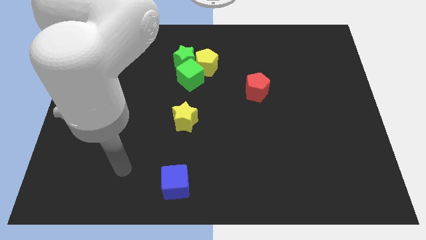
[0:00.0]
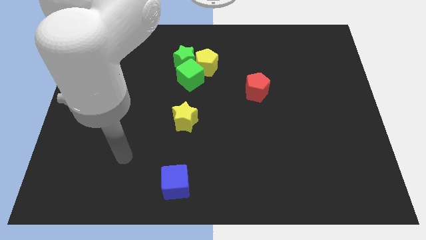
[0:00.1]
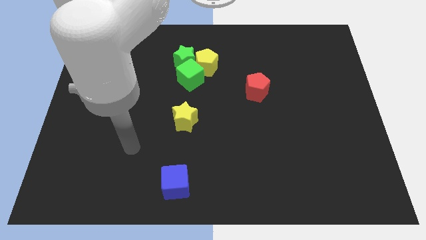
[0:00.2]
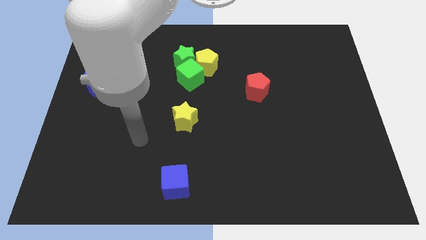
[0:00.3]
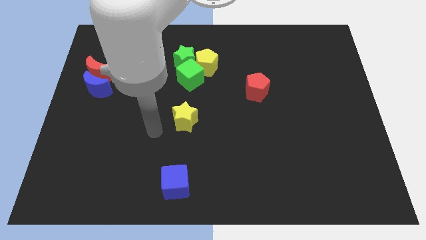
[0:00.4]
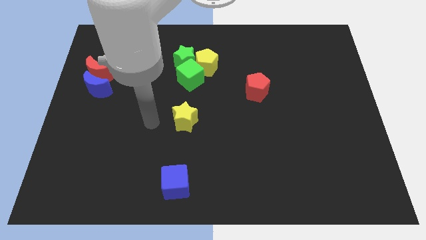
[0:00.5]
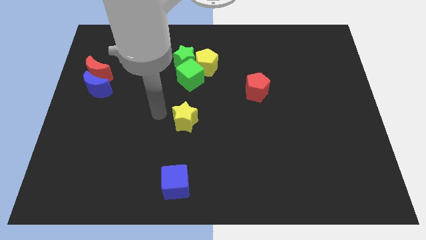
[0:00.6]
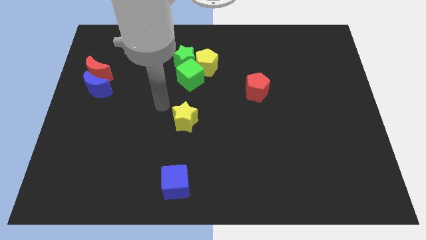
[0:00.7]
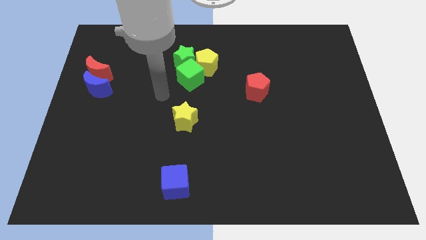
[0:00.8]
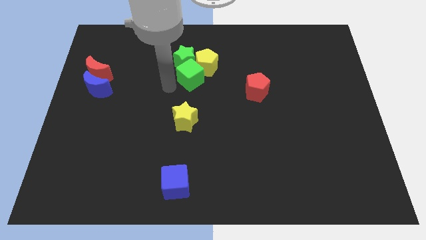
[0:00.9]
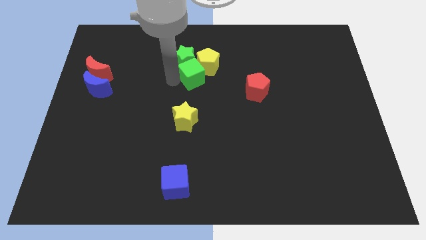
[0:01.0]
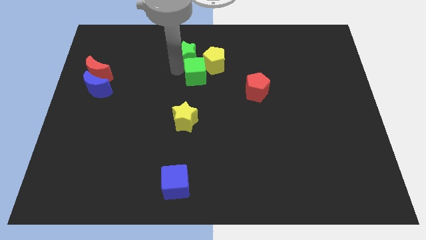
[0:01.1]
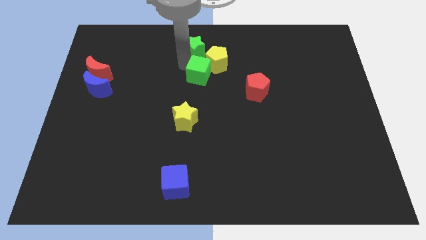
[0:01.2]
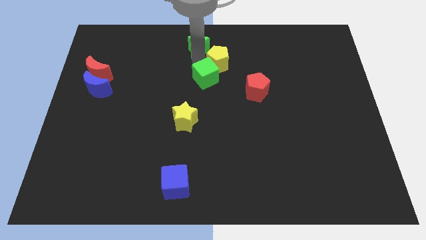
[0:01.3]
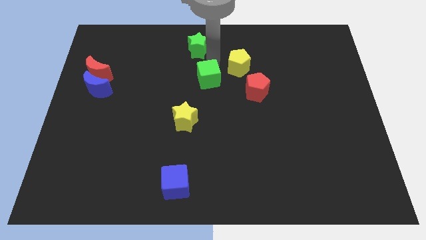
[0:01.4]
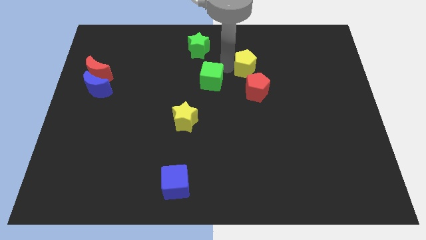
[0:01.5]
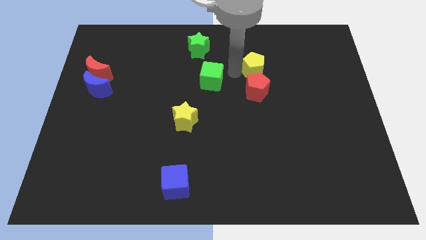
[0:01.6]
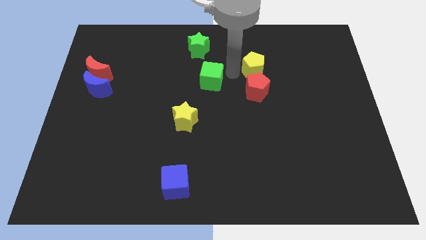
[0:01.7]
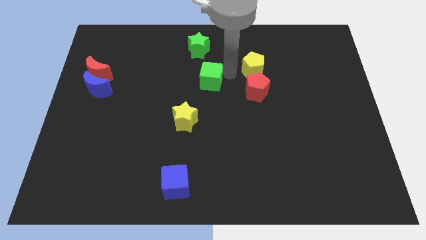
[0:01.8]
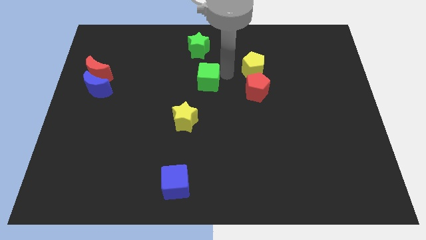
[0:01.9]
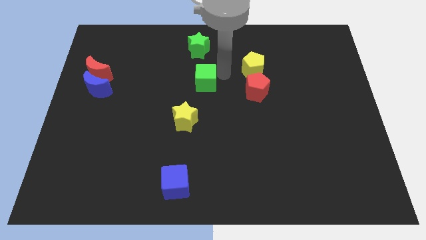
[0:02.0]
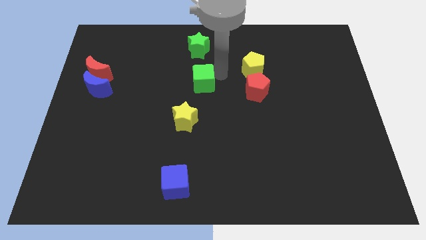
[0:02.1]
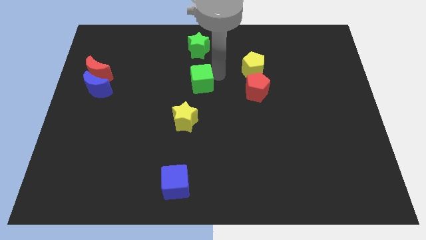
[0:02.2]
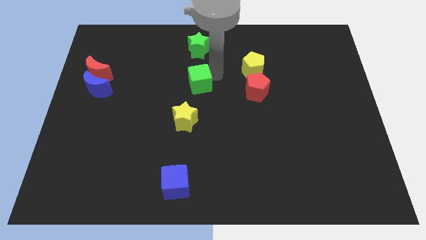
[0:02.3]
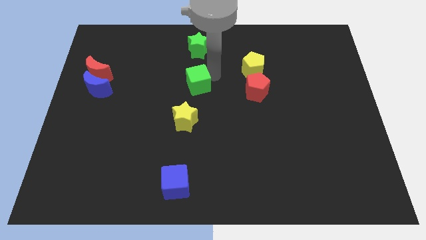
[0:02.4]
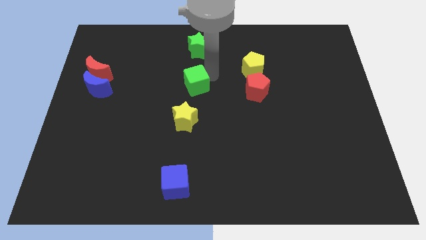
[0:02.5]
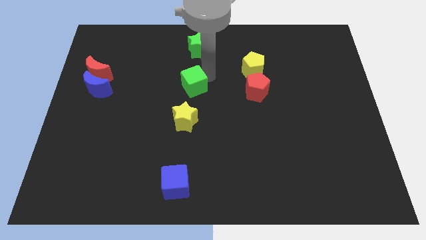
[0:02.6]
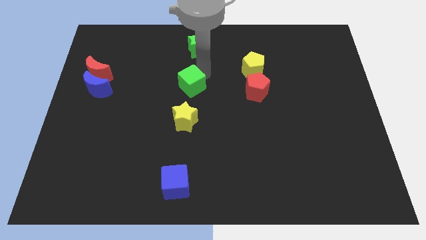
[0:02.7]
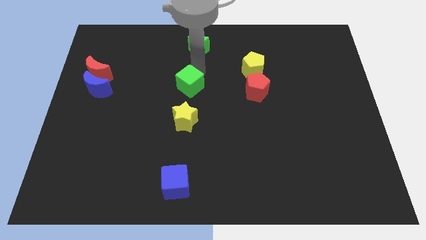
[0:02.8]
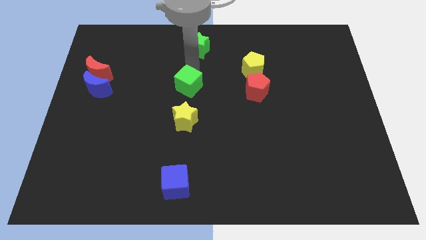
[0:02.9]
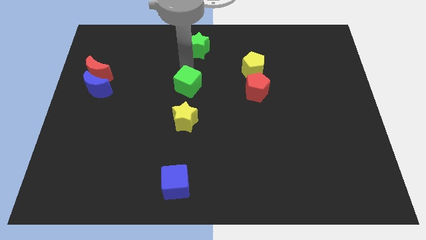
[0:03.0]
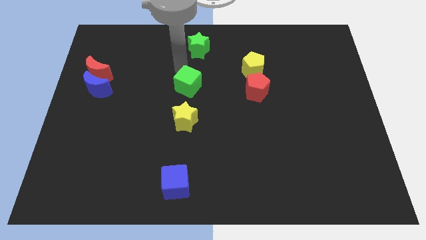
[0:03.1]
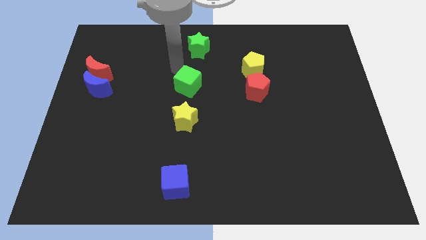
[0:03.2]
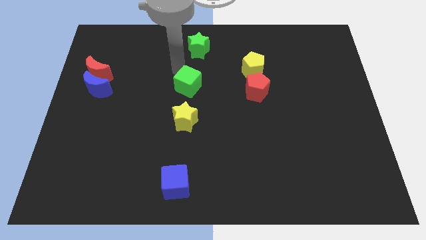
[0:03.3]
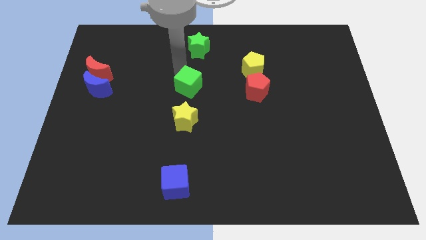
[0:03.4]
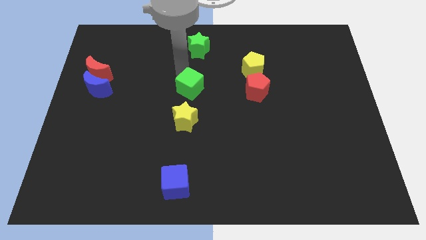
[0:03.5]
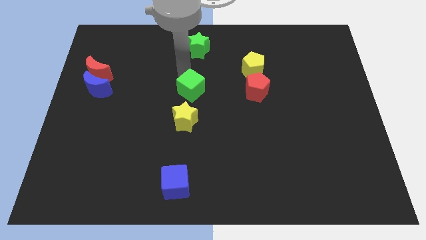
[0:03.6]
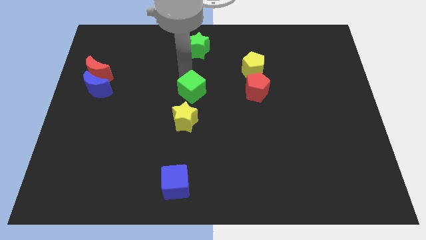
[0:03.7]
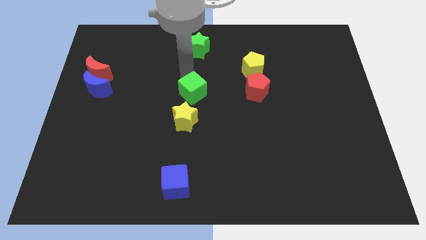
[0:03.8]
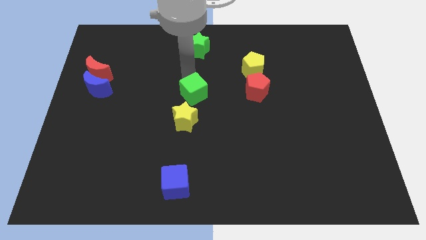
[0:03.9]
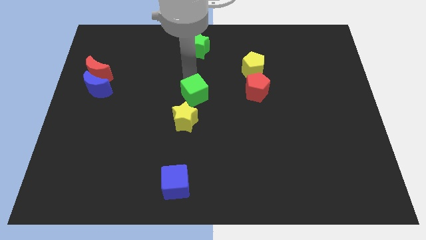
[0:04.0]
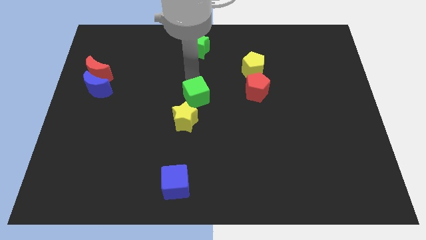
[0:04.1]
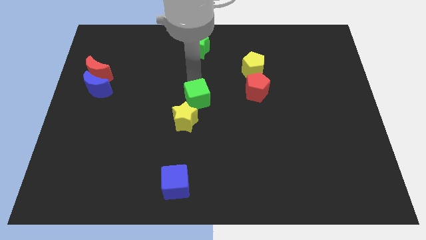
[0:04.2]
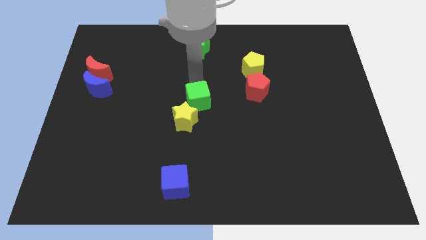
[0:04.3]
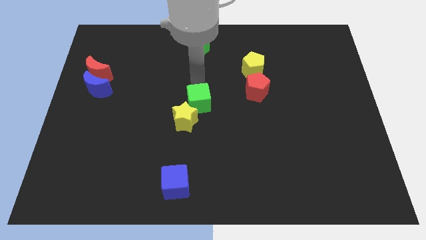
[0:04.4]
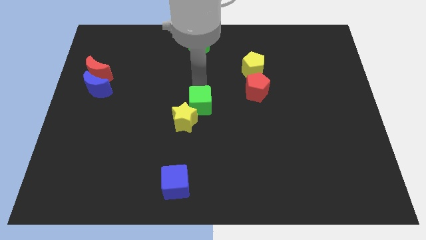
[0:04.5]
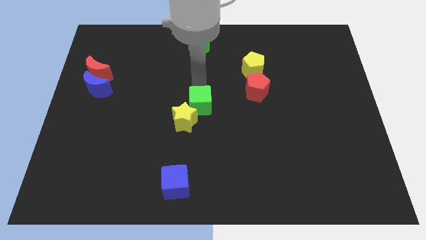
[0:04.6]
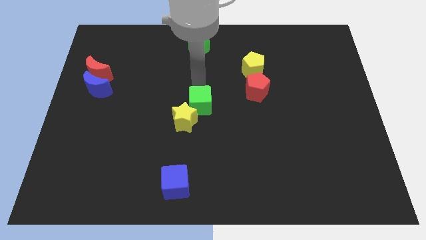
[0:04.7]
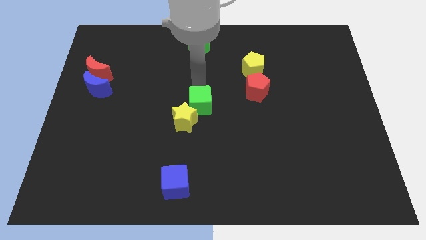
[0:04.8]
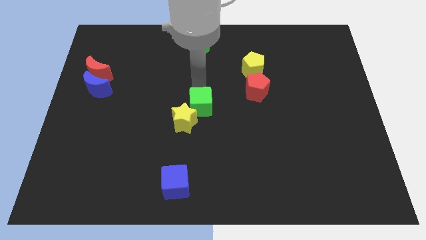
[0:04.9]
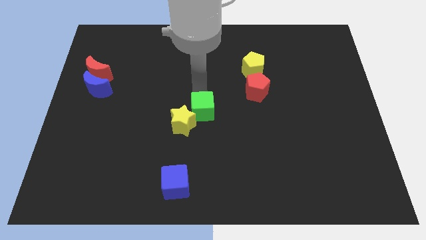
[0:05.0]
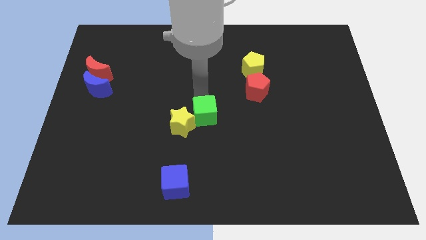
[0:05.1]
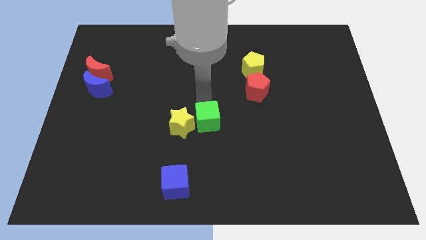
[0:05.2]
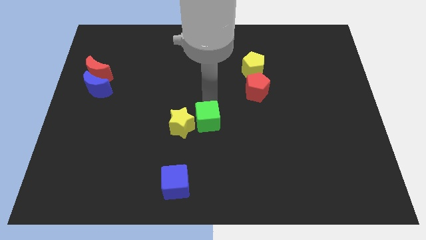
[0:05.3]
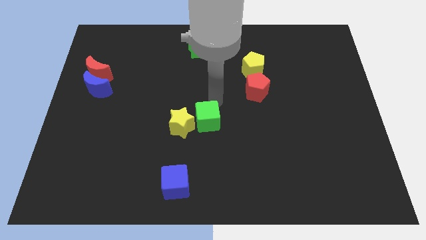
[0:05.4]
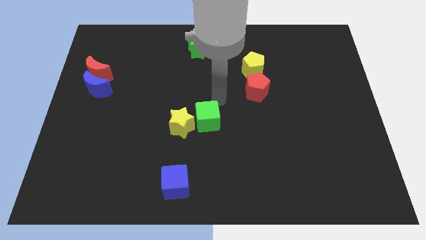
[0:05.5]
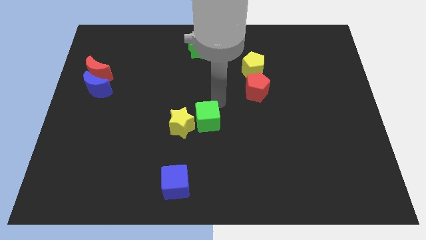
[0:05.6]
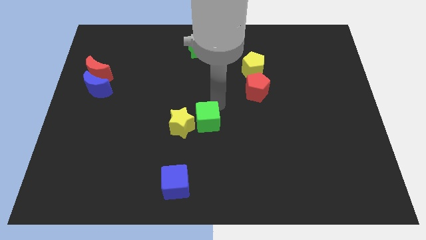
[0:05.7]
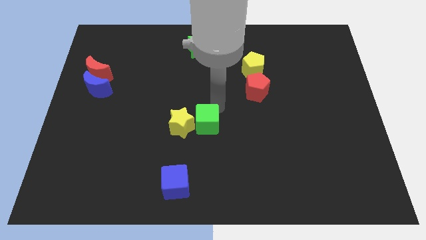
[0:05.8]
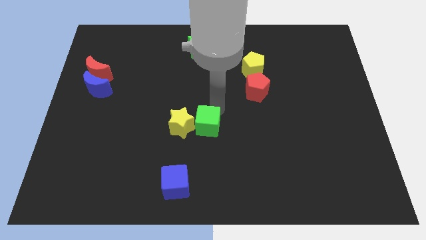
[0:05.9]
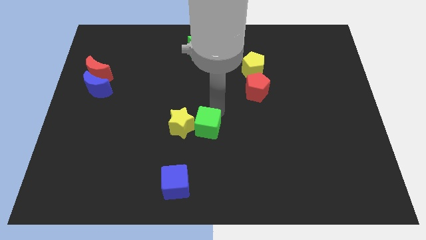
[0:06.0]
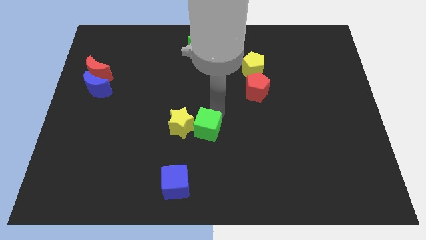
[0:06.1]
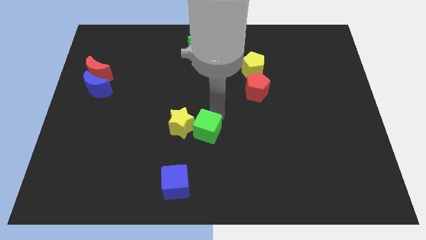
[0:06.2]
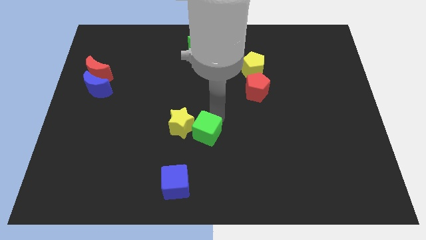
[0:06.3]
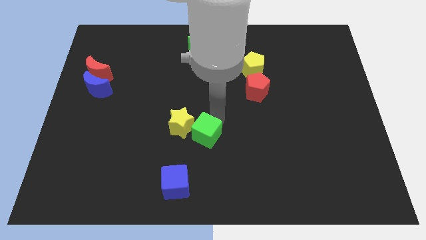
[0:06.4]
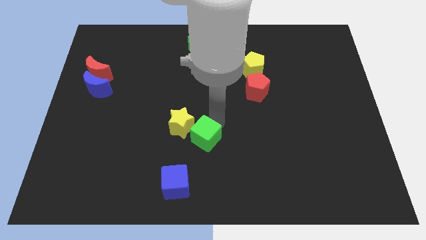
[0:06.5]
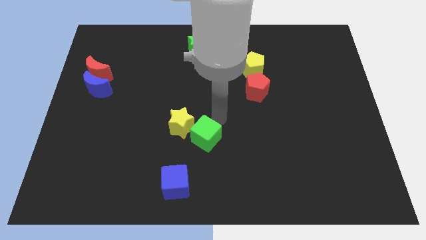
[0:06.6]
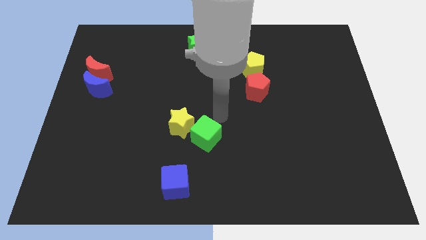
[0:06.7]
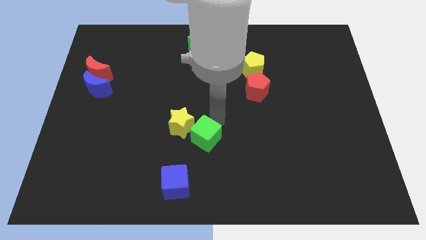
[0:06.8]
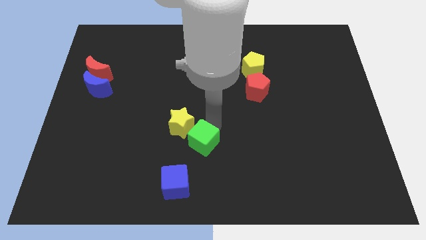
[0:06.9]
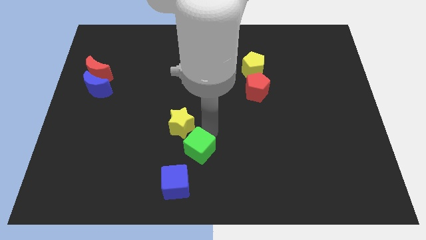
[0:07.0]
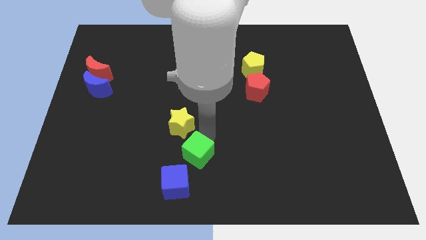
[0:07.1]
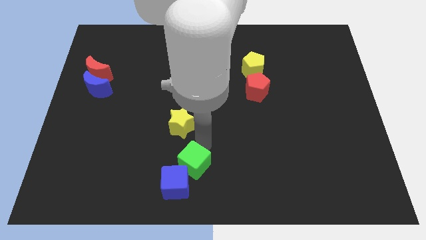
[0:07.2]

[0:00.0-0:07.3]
push the green cube towards the blue cube
